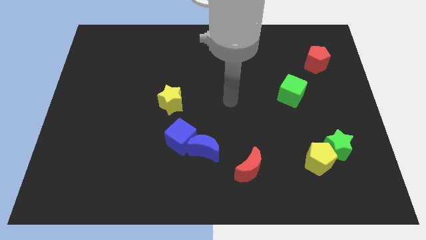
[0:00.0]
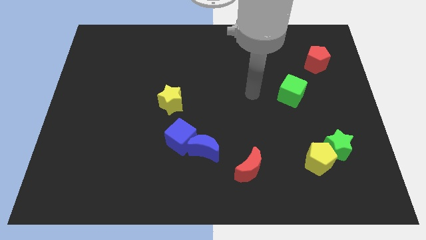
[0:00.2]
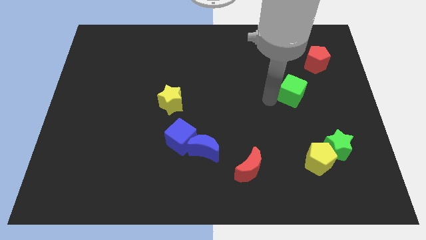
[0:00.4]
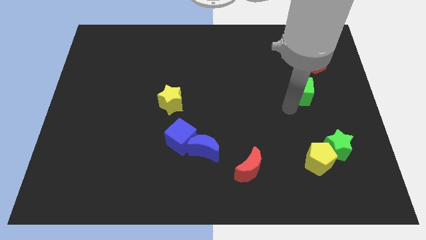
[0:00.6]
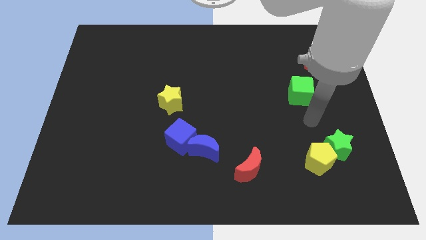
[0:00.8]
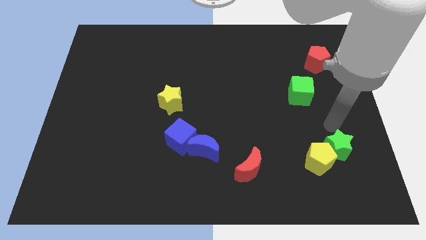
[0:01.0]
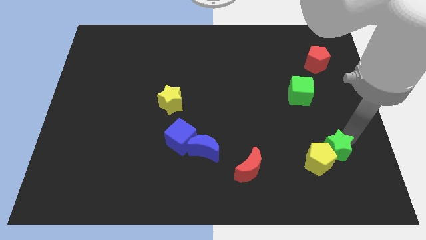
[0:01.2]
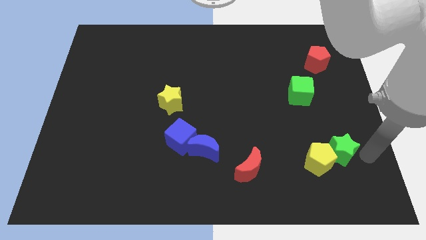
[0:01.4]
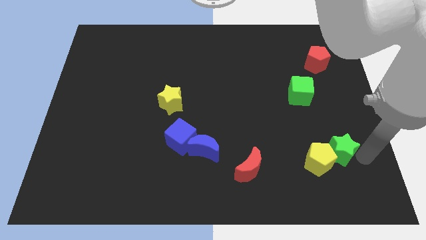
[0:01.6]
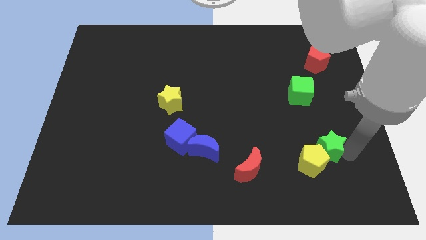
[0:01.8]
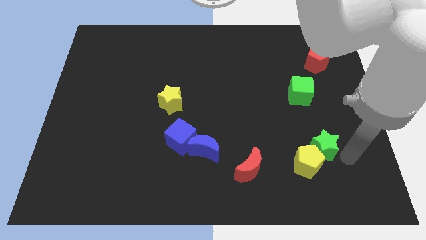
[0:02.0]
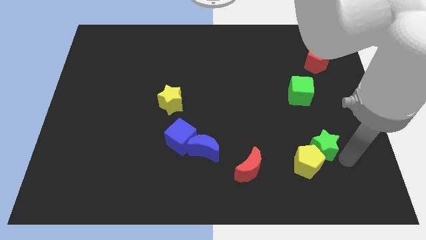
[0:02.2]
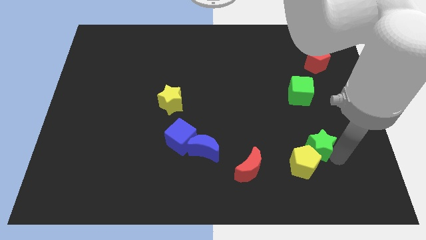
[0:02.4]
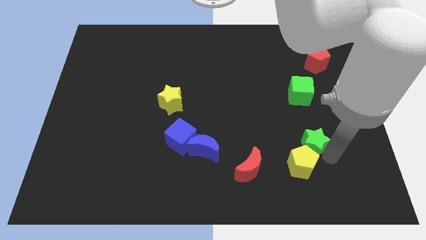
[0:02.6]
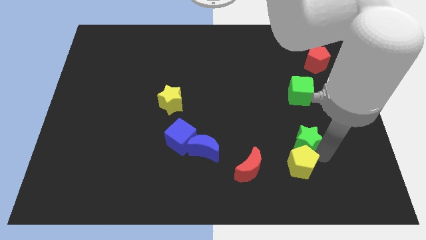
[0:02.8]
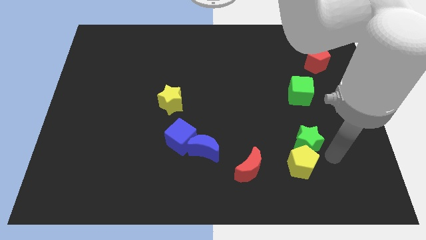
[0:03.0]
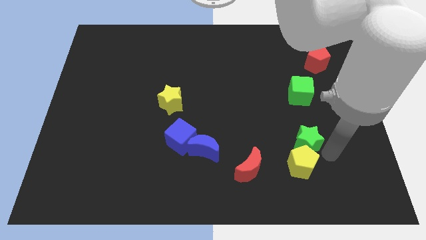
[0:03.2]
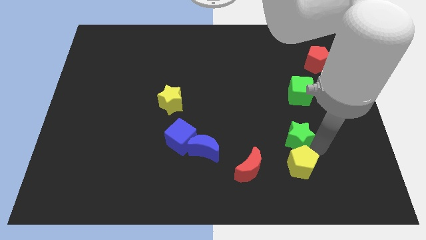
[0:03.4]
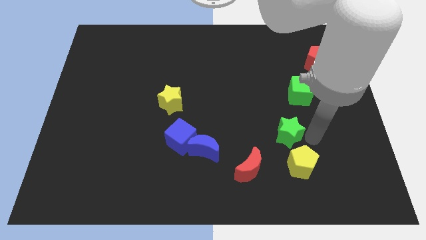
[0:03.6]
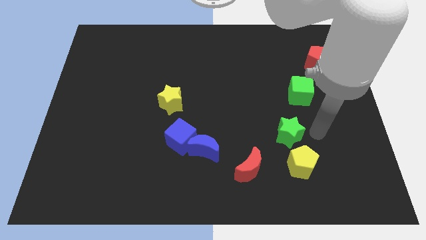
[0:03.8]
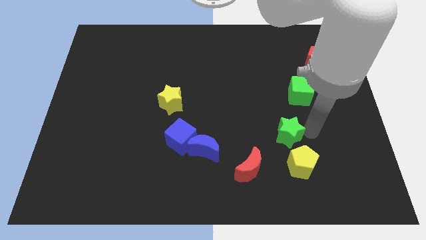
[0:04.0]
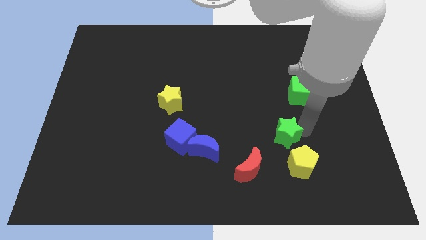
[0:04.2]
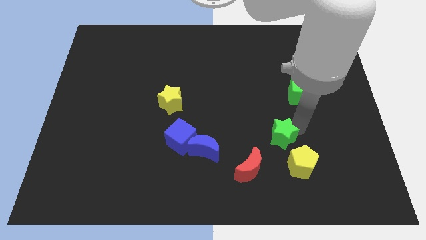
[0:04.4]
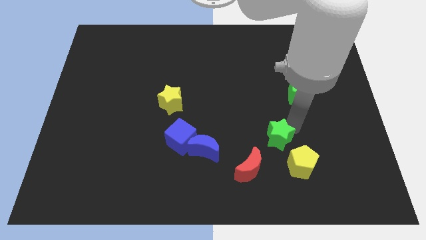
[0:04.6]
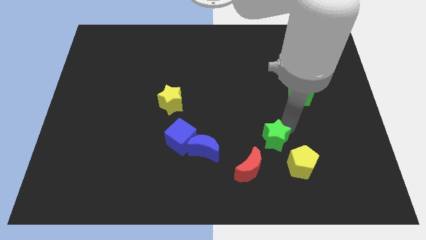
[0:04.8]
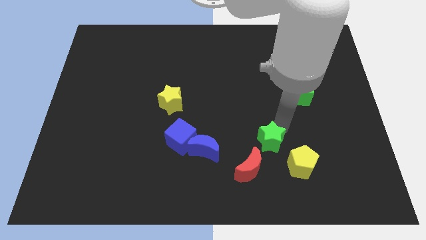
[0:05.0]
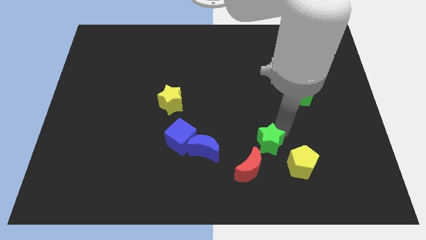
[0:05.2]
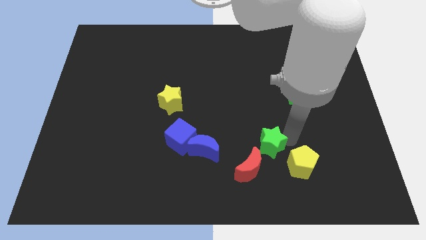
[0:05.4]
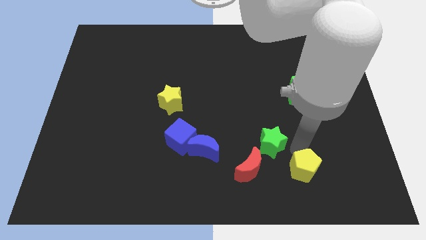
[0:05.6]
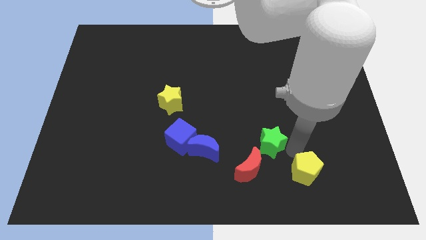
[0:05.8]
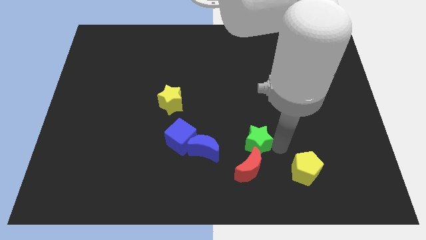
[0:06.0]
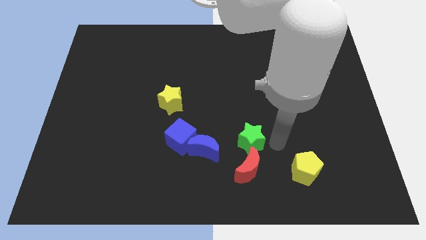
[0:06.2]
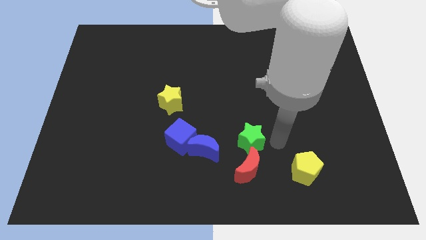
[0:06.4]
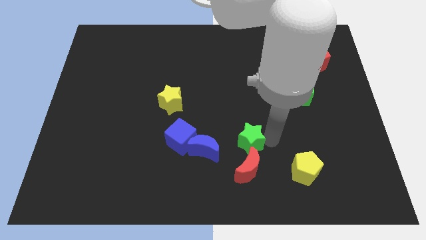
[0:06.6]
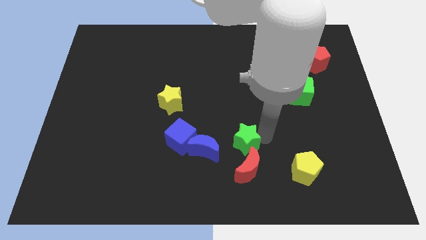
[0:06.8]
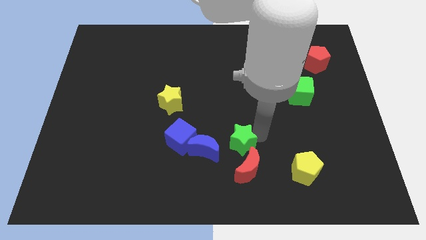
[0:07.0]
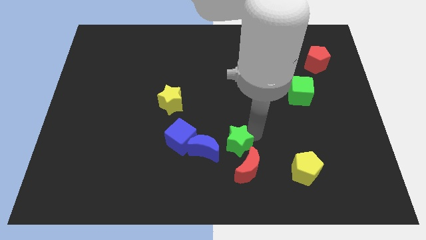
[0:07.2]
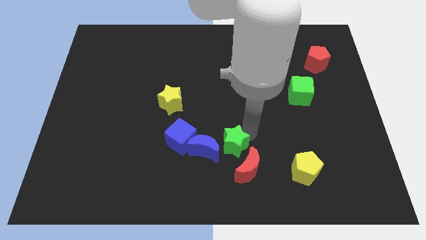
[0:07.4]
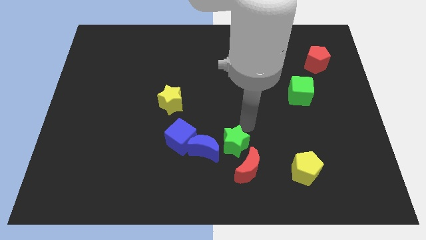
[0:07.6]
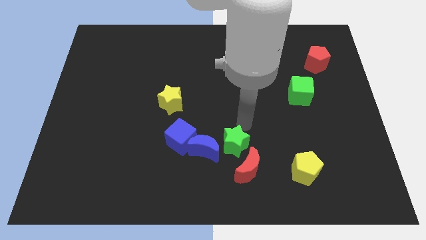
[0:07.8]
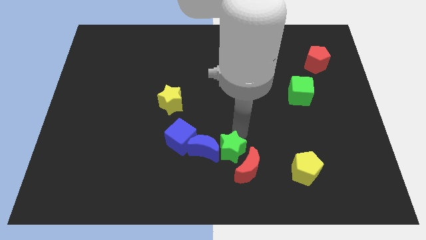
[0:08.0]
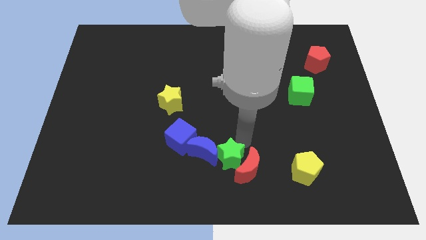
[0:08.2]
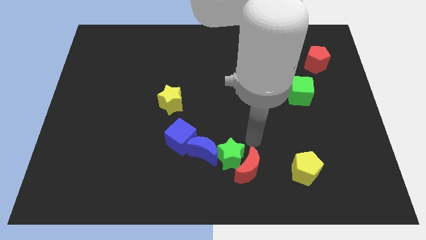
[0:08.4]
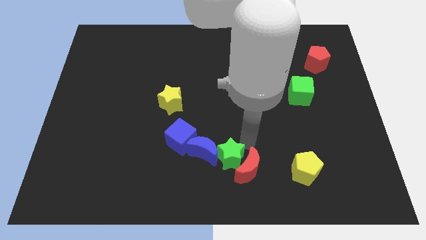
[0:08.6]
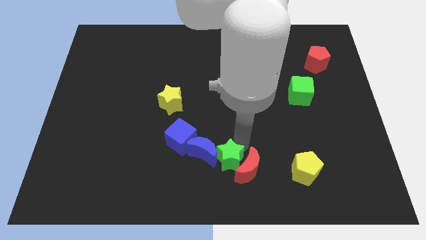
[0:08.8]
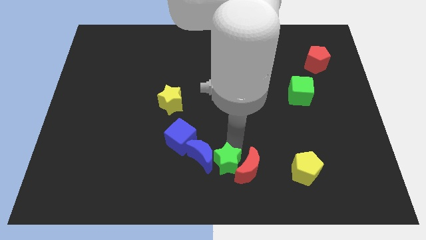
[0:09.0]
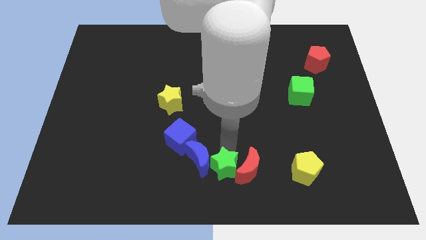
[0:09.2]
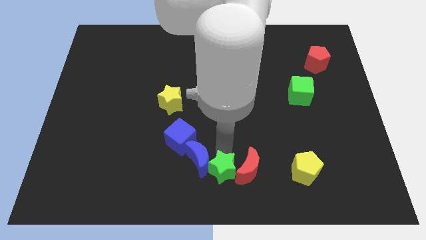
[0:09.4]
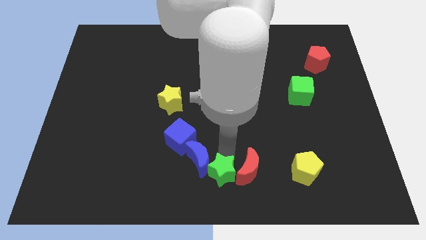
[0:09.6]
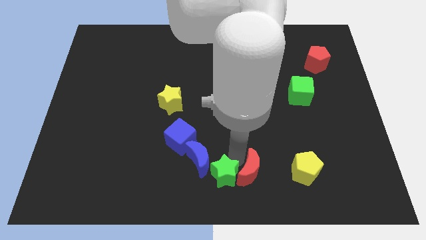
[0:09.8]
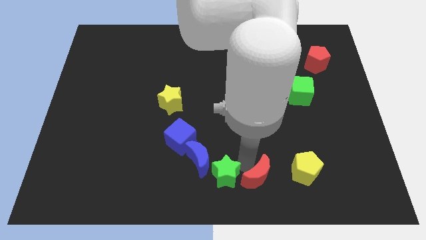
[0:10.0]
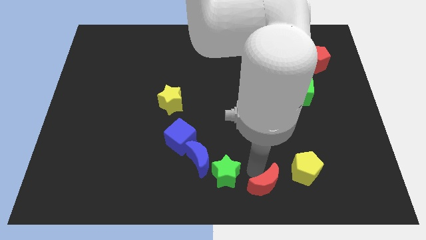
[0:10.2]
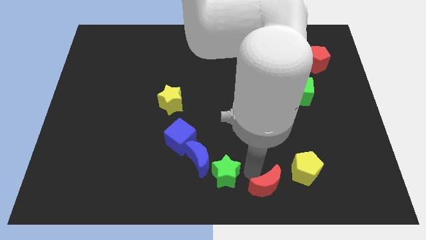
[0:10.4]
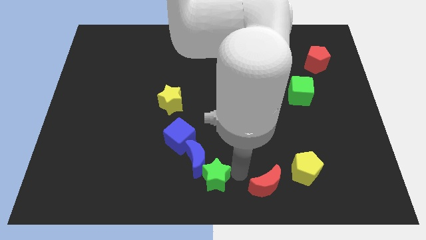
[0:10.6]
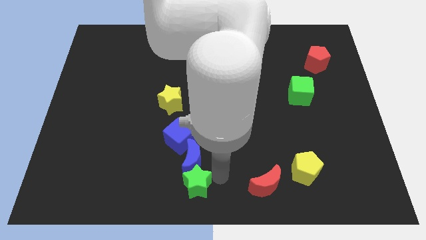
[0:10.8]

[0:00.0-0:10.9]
push the green star to the bottom side of the blue cube

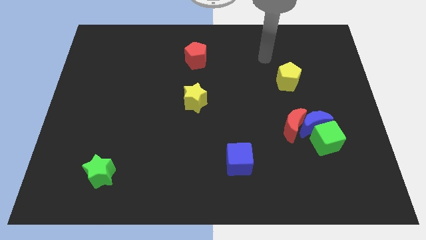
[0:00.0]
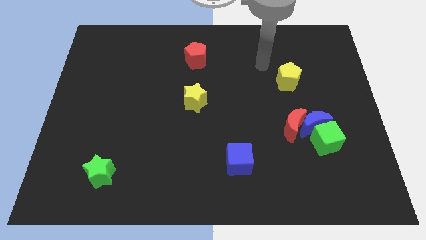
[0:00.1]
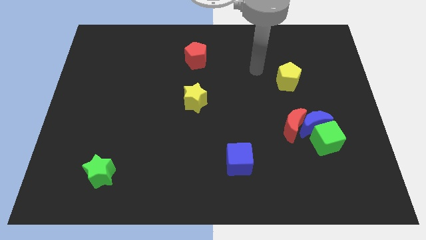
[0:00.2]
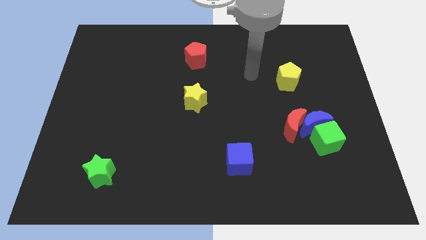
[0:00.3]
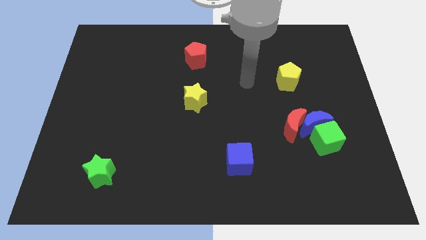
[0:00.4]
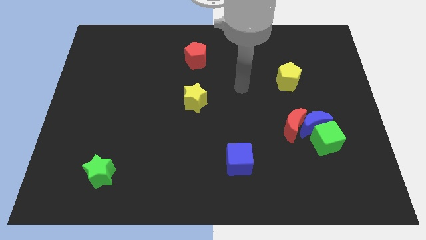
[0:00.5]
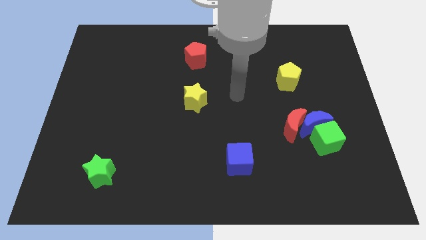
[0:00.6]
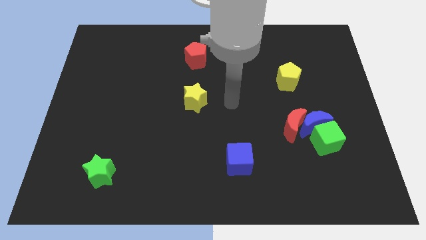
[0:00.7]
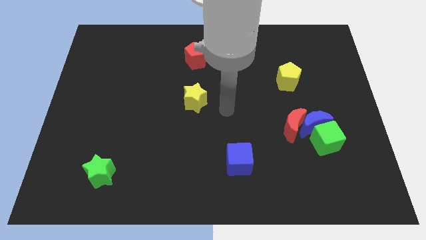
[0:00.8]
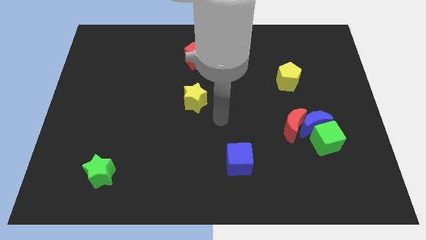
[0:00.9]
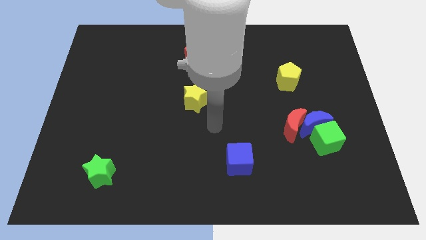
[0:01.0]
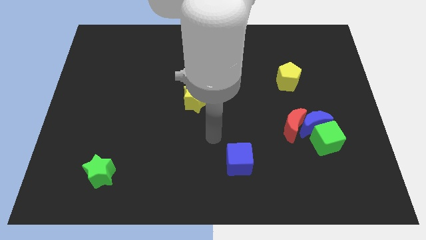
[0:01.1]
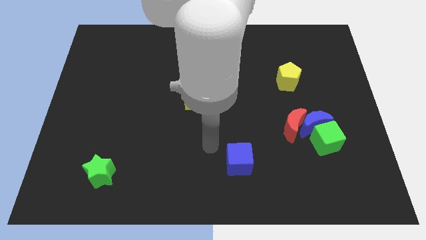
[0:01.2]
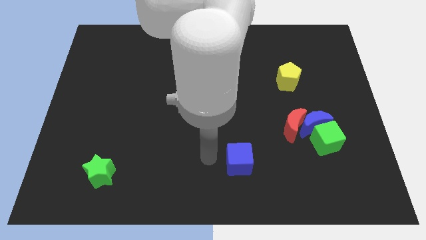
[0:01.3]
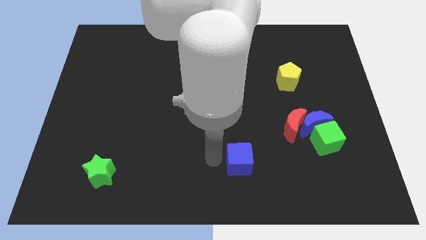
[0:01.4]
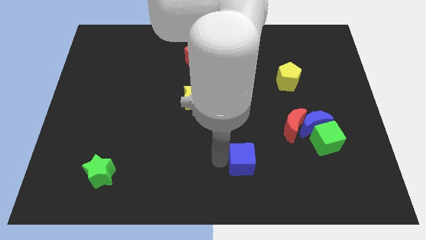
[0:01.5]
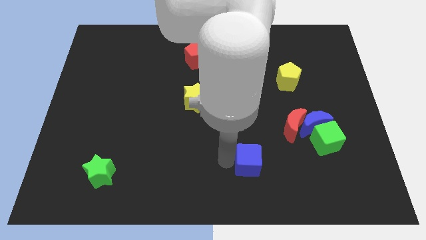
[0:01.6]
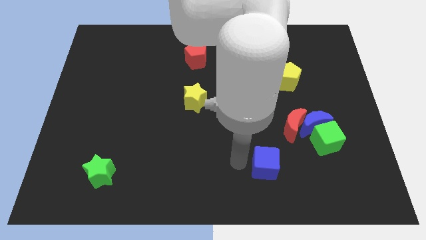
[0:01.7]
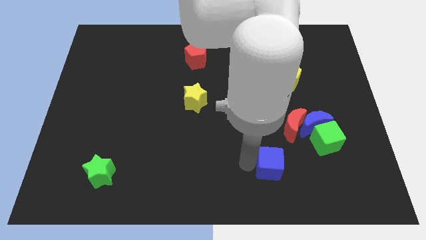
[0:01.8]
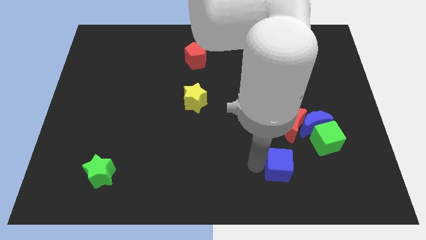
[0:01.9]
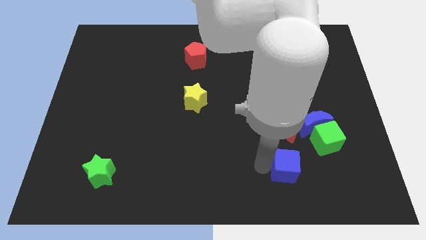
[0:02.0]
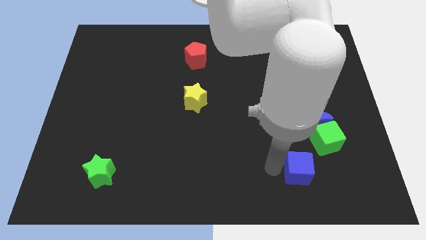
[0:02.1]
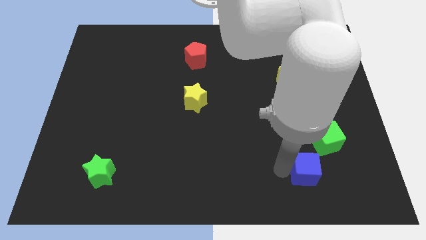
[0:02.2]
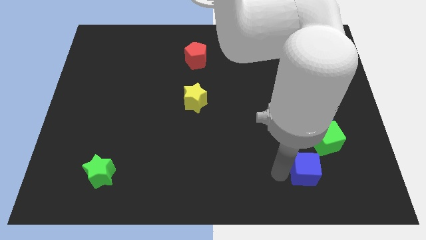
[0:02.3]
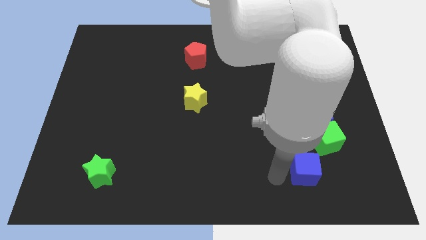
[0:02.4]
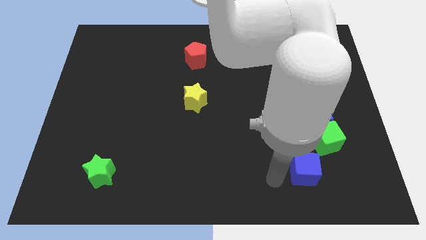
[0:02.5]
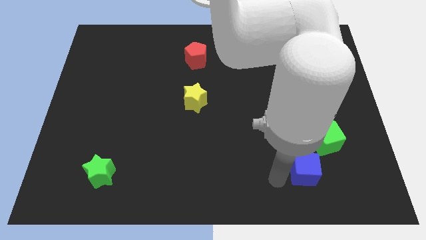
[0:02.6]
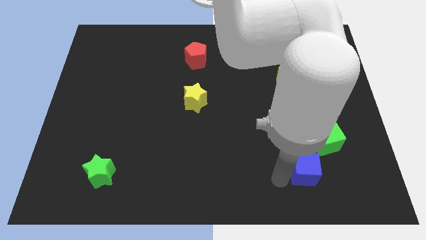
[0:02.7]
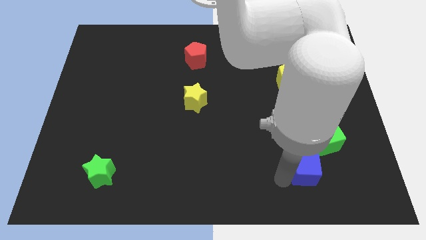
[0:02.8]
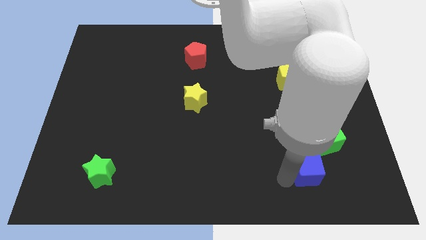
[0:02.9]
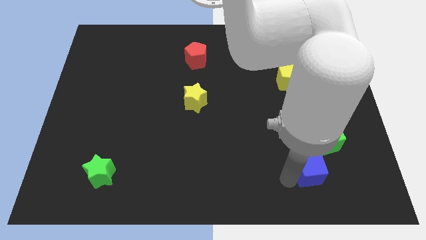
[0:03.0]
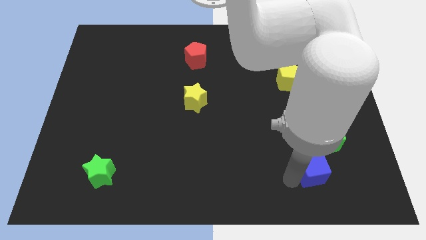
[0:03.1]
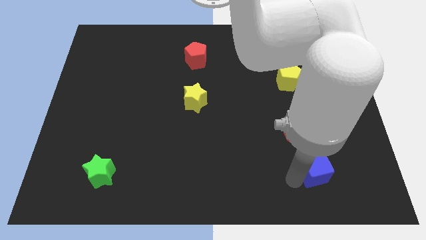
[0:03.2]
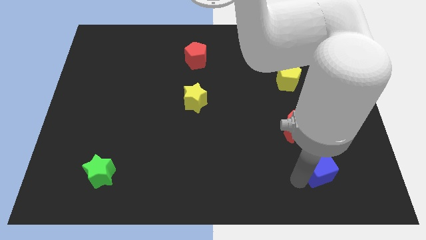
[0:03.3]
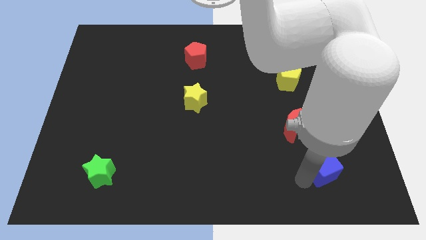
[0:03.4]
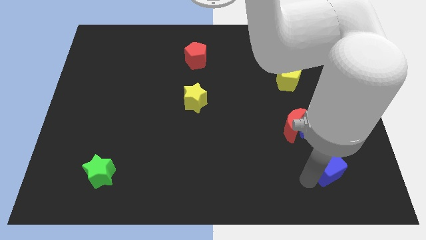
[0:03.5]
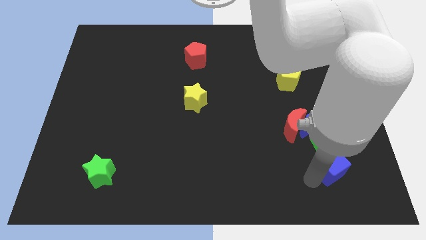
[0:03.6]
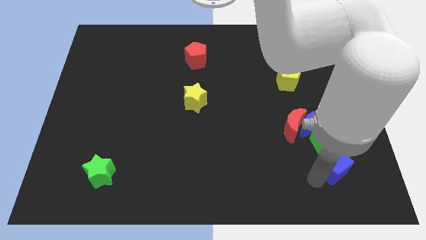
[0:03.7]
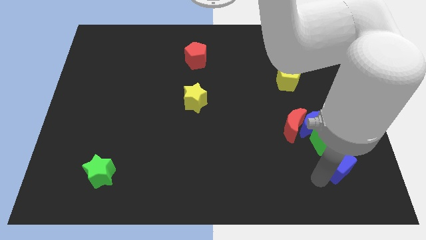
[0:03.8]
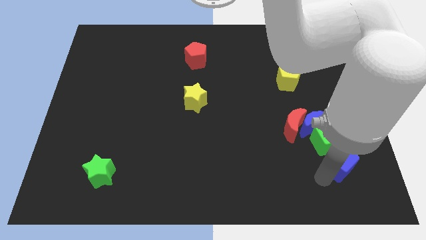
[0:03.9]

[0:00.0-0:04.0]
slide the blue cube to the bottom right side of the blue moon
